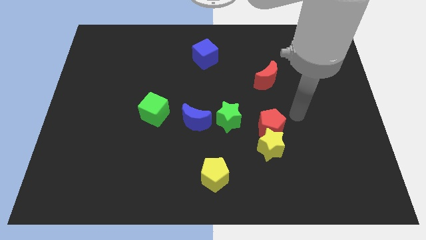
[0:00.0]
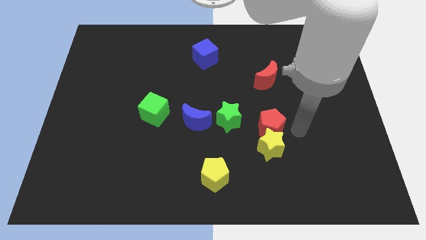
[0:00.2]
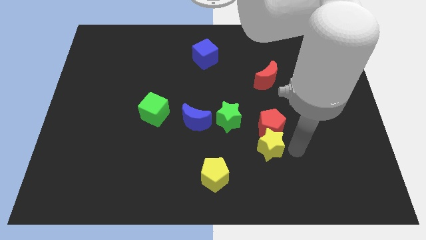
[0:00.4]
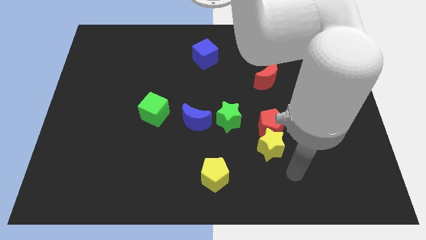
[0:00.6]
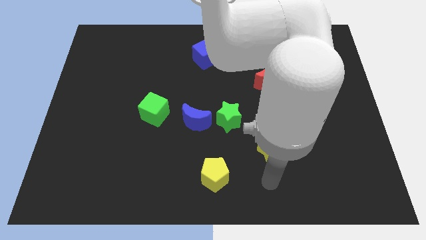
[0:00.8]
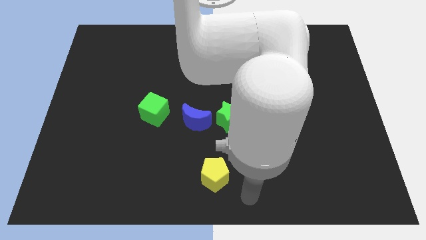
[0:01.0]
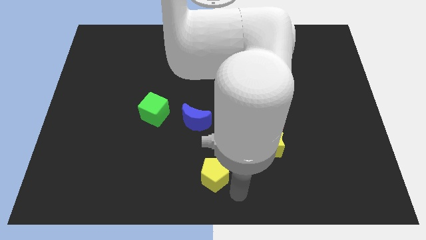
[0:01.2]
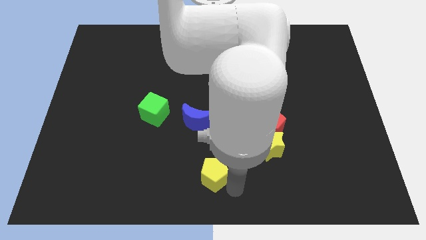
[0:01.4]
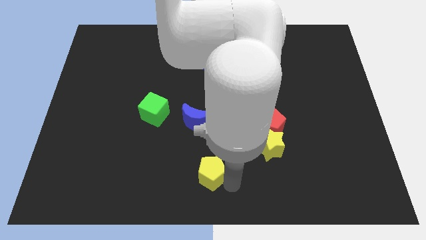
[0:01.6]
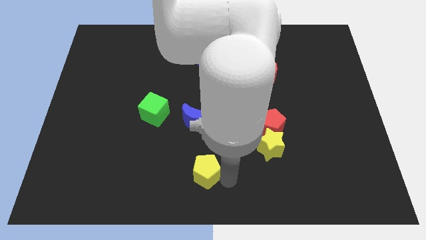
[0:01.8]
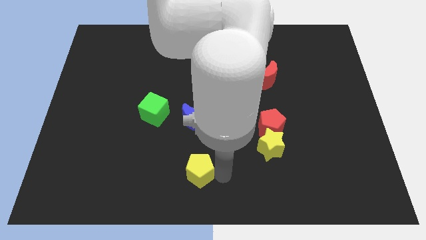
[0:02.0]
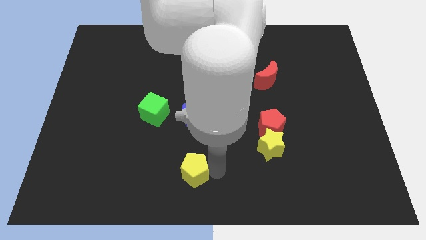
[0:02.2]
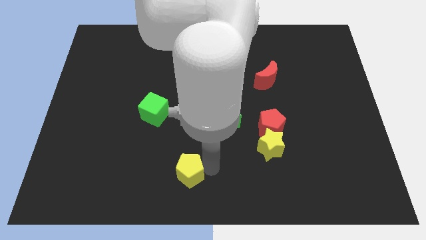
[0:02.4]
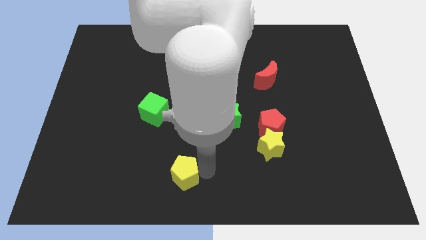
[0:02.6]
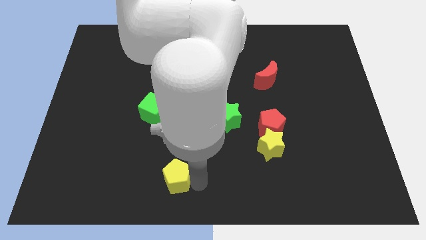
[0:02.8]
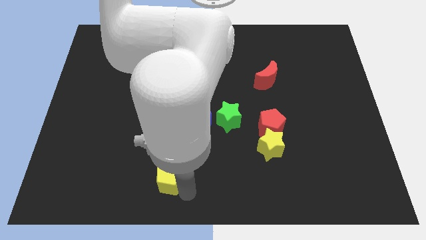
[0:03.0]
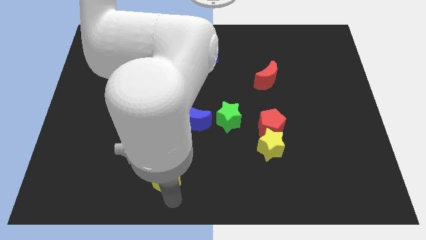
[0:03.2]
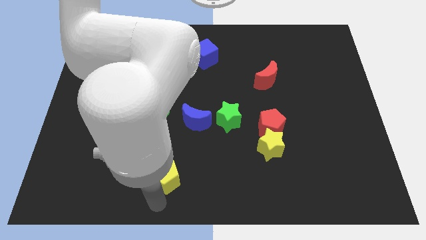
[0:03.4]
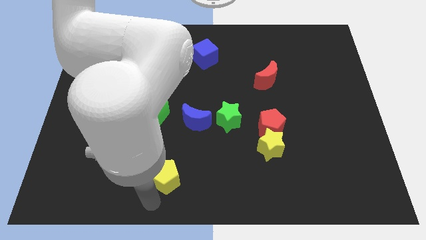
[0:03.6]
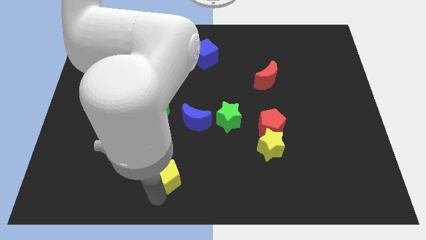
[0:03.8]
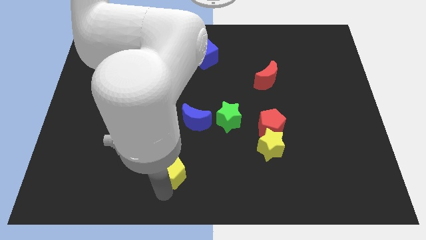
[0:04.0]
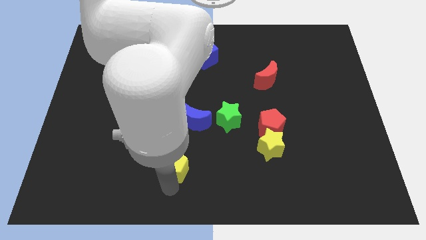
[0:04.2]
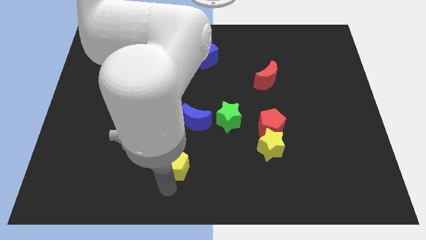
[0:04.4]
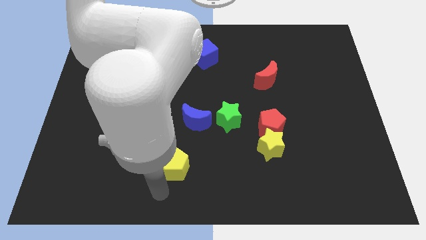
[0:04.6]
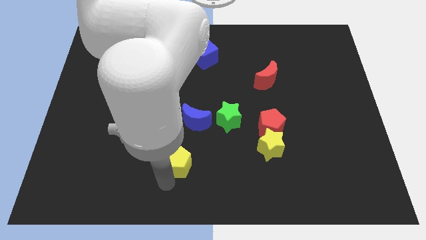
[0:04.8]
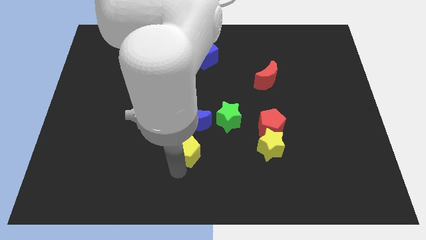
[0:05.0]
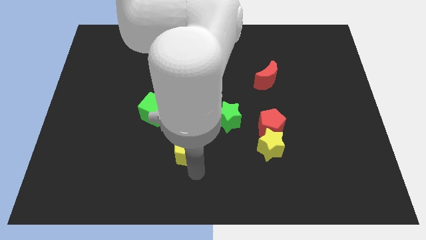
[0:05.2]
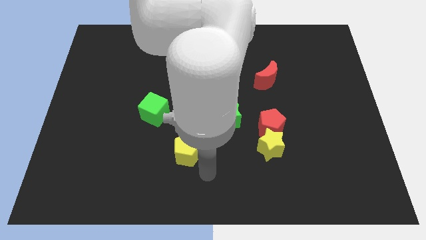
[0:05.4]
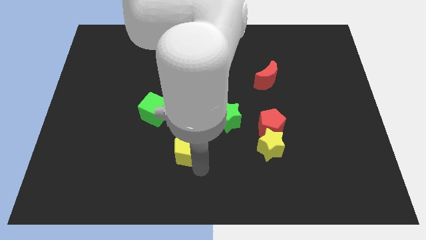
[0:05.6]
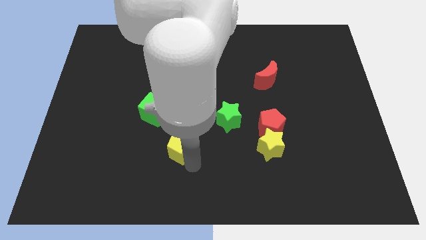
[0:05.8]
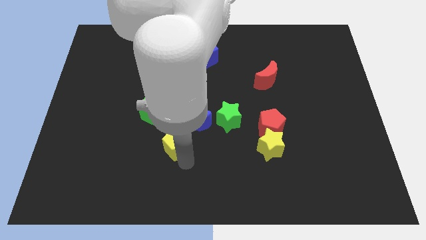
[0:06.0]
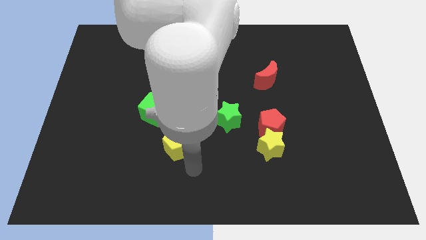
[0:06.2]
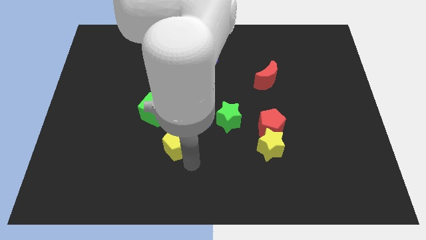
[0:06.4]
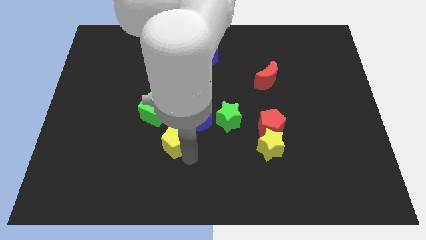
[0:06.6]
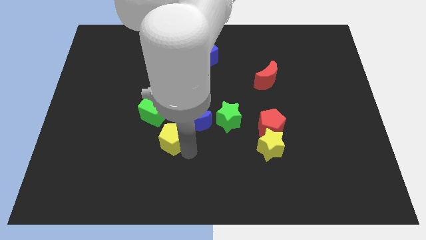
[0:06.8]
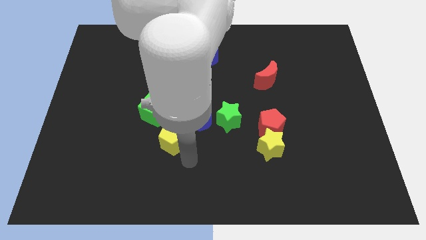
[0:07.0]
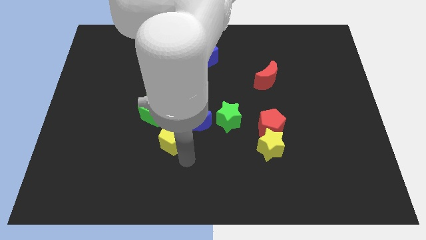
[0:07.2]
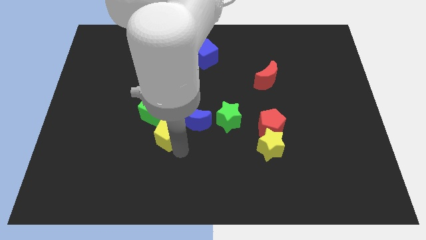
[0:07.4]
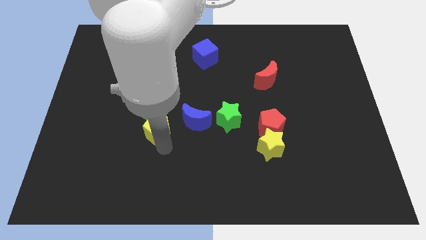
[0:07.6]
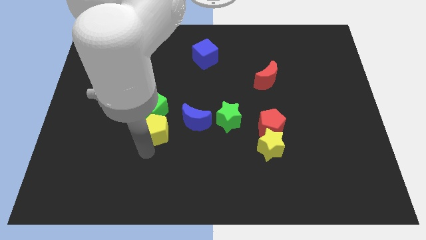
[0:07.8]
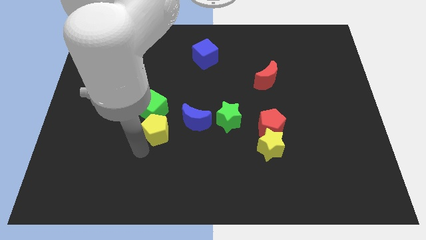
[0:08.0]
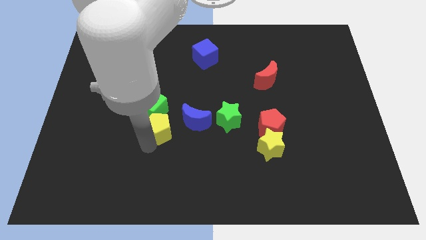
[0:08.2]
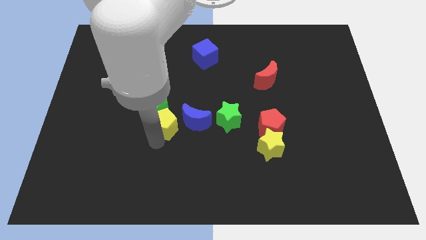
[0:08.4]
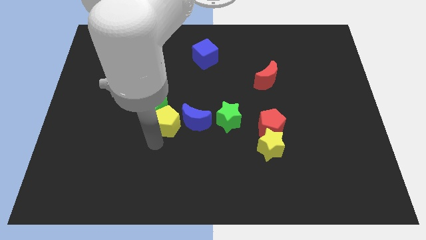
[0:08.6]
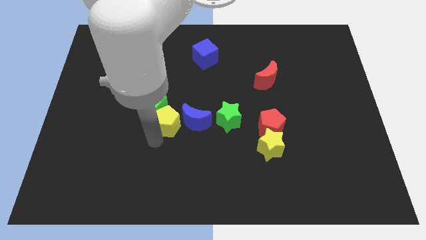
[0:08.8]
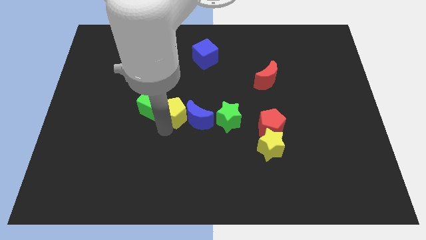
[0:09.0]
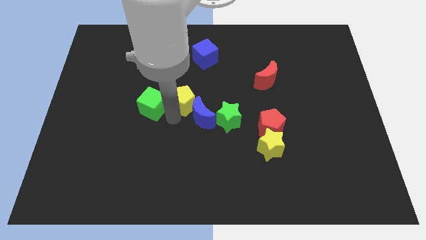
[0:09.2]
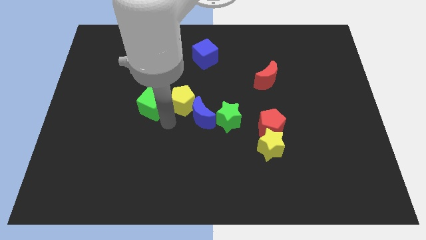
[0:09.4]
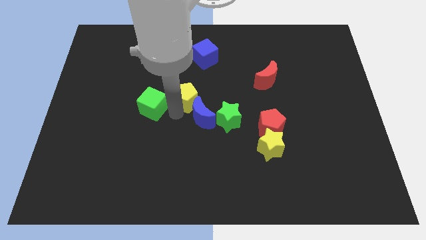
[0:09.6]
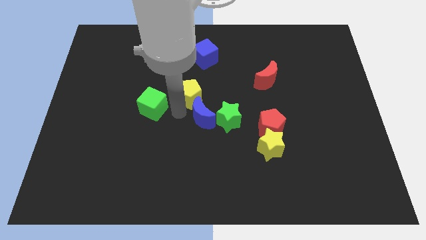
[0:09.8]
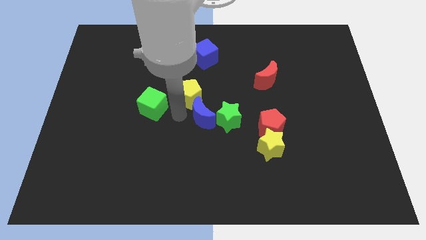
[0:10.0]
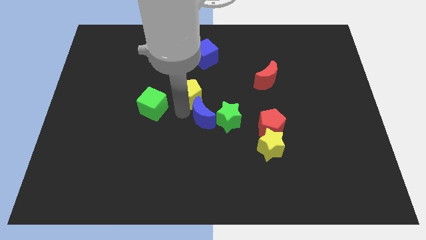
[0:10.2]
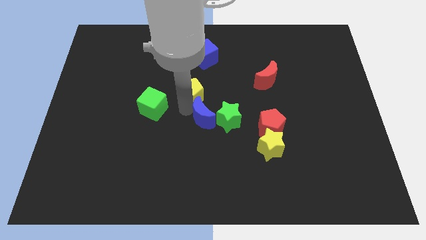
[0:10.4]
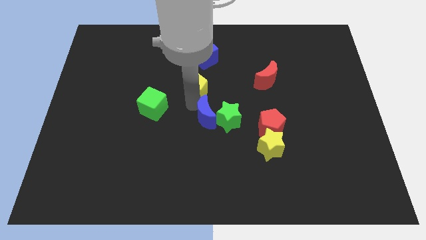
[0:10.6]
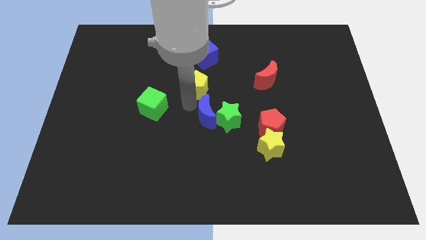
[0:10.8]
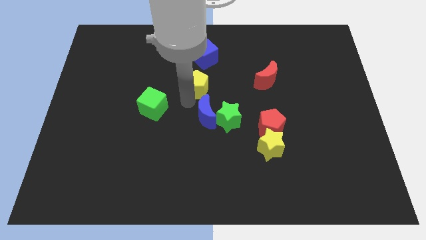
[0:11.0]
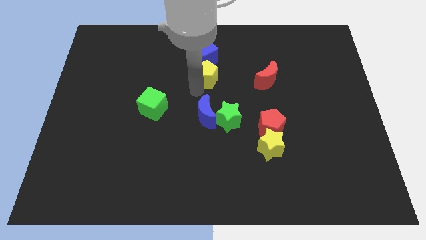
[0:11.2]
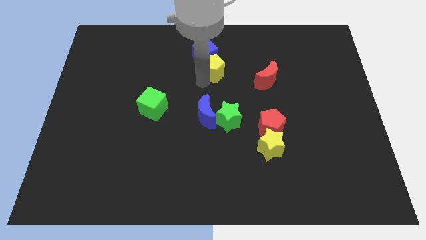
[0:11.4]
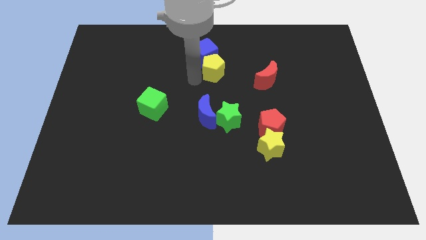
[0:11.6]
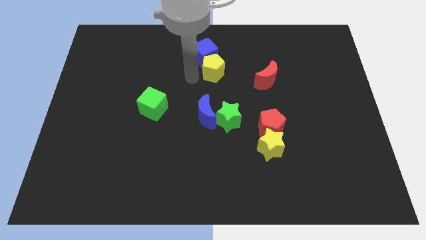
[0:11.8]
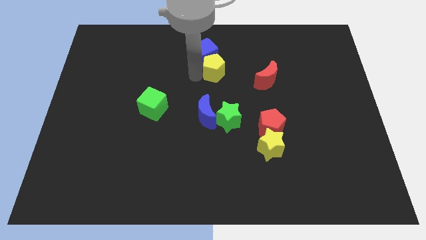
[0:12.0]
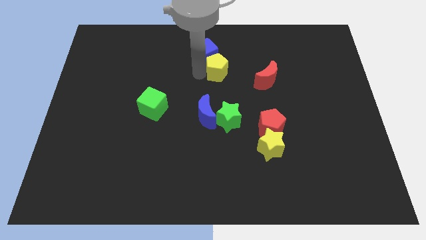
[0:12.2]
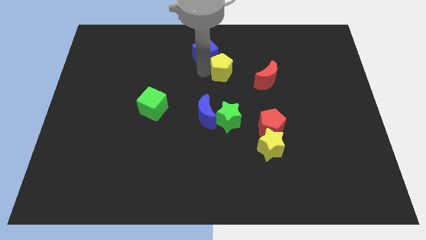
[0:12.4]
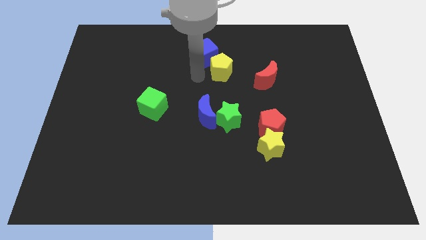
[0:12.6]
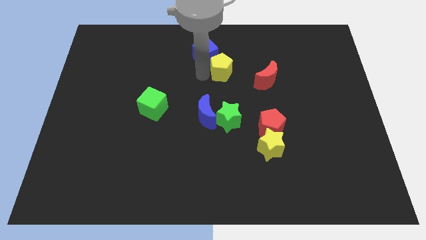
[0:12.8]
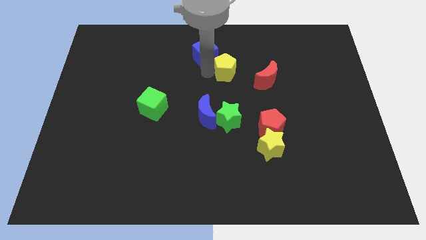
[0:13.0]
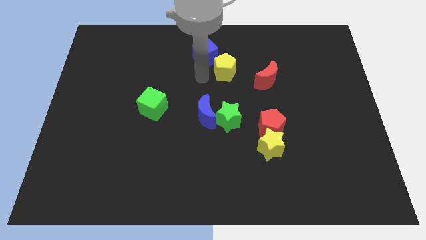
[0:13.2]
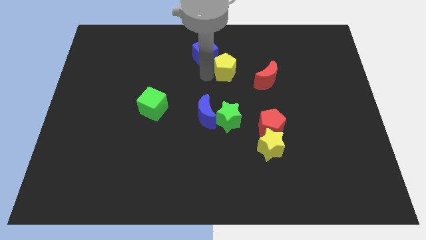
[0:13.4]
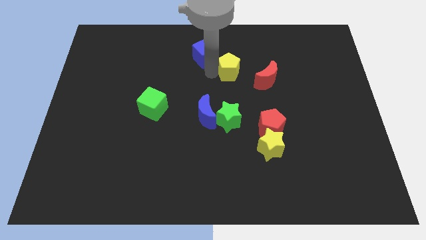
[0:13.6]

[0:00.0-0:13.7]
put the yellow pentagon diagonally up and to the left of the red moon

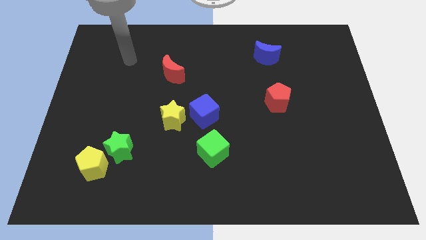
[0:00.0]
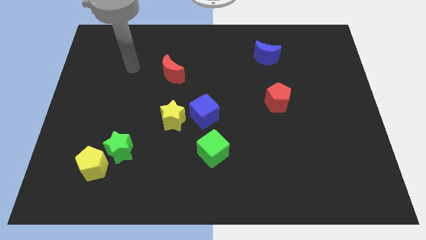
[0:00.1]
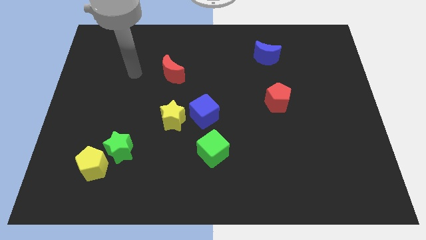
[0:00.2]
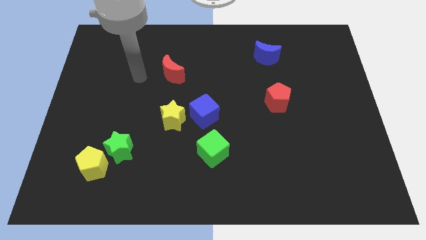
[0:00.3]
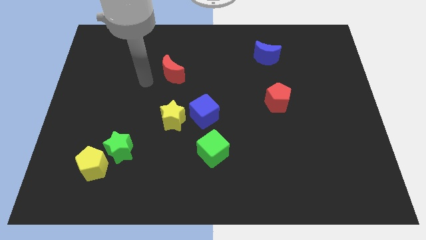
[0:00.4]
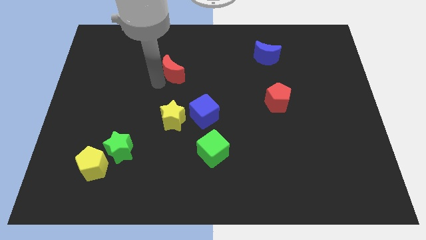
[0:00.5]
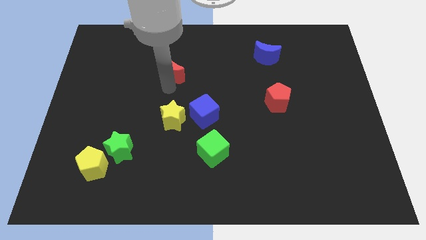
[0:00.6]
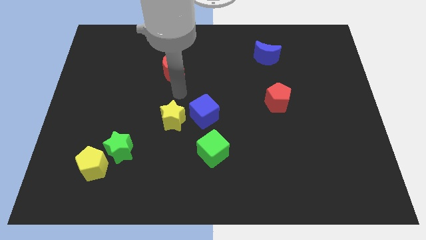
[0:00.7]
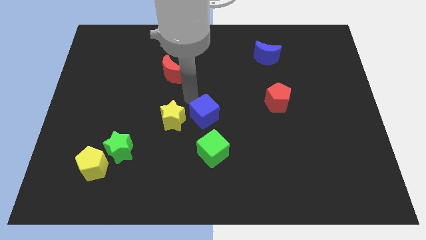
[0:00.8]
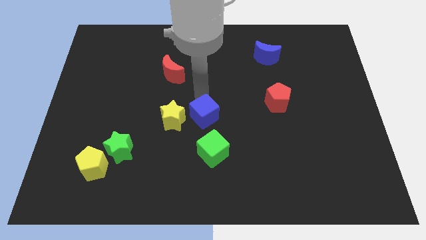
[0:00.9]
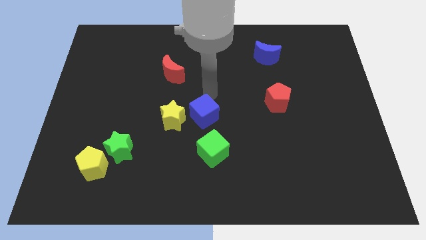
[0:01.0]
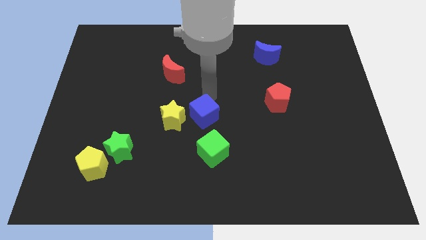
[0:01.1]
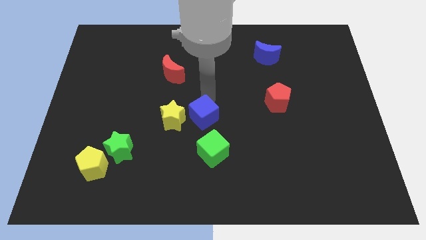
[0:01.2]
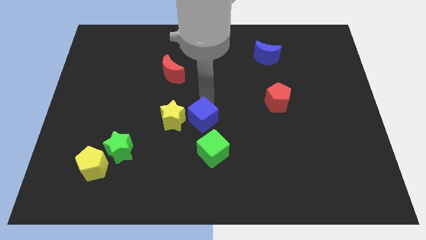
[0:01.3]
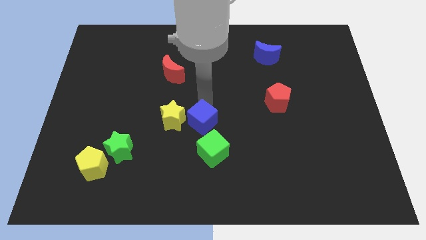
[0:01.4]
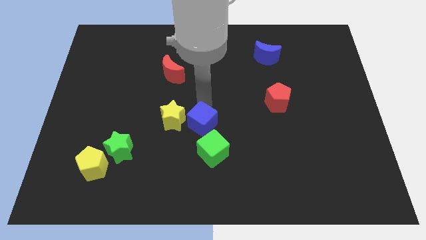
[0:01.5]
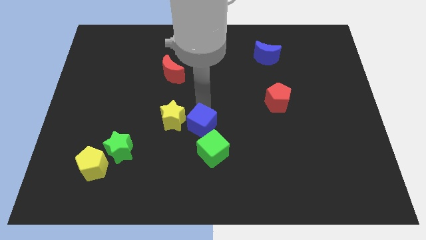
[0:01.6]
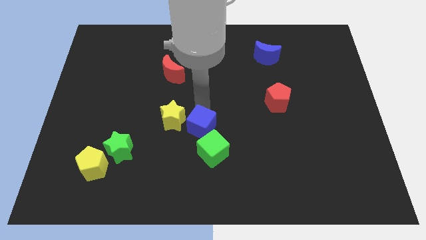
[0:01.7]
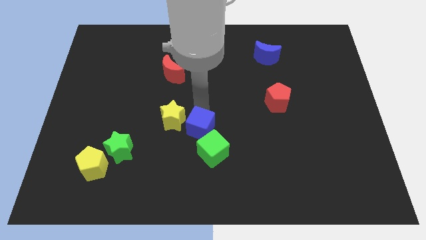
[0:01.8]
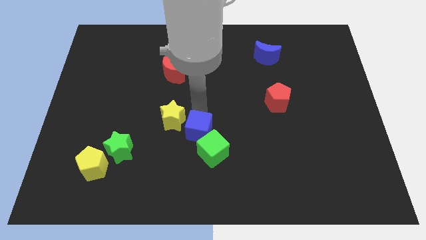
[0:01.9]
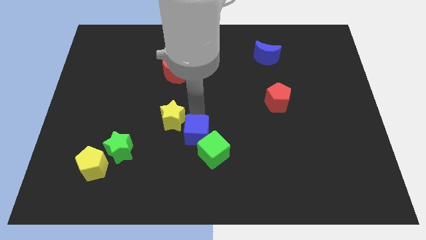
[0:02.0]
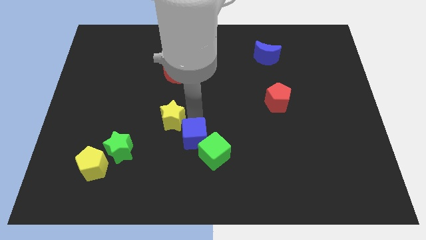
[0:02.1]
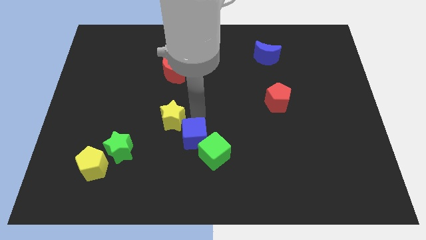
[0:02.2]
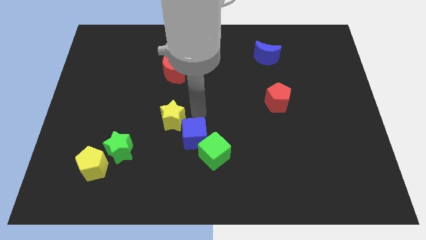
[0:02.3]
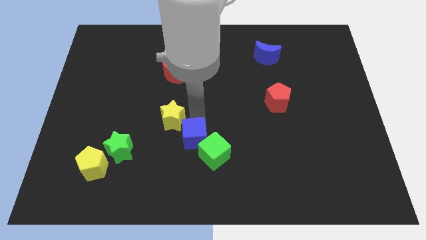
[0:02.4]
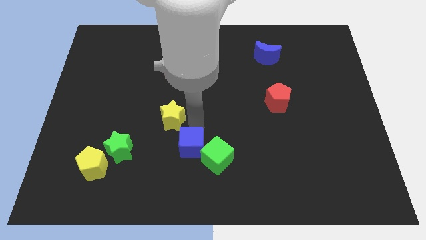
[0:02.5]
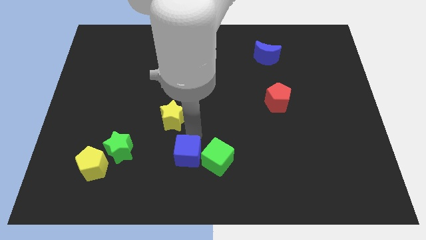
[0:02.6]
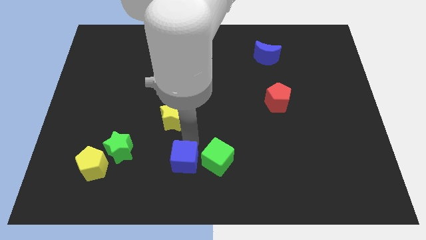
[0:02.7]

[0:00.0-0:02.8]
push the blue cube to the bottom left of the green cube
